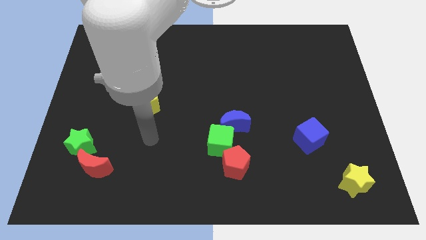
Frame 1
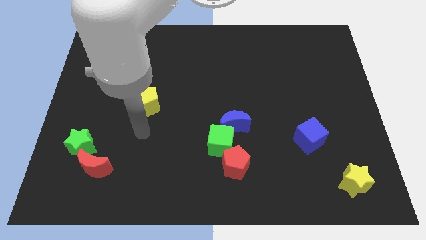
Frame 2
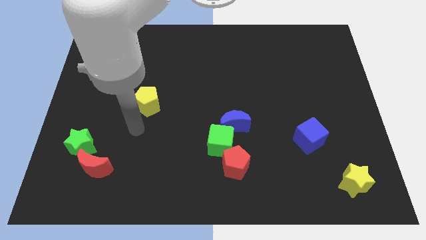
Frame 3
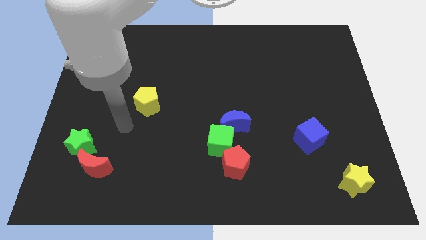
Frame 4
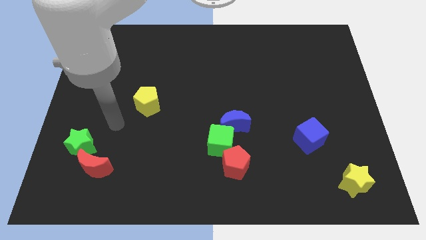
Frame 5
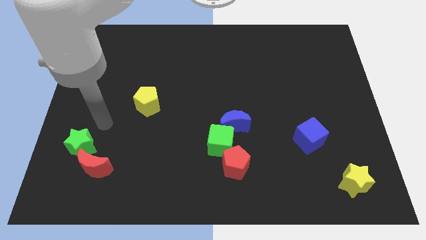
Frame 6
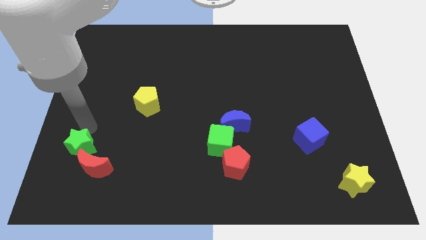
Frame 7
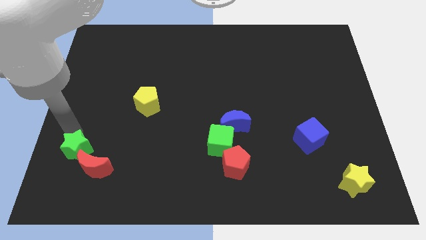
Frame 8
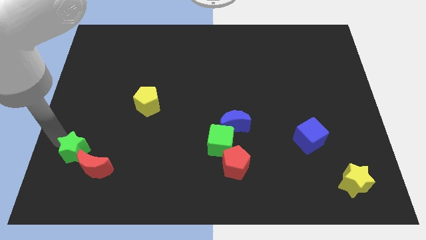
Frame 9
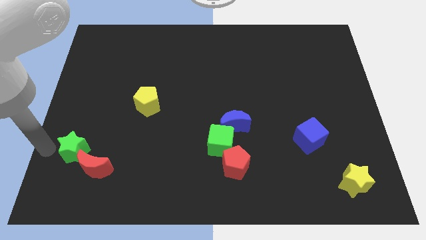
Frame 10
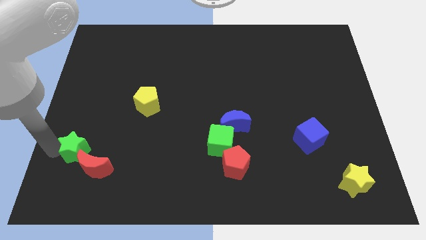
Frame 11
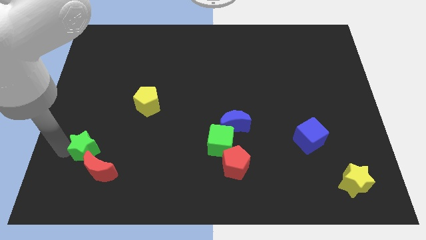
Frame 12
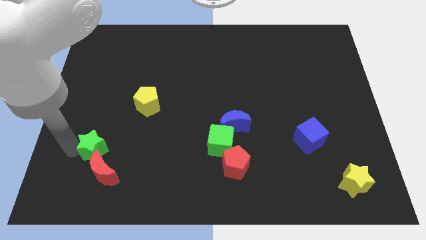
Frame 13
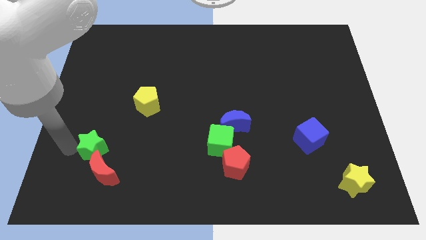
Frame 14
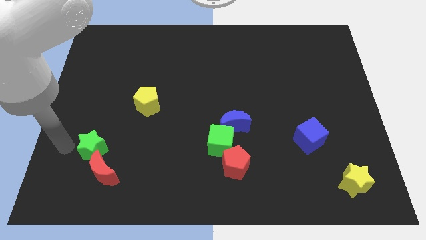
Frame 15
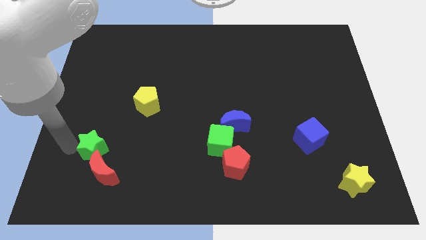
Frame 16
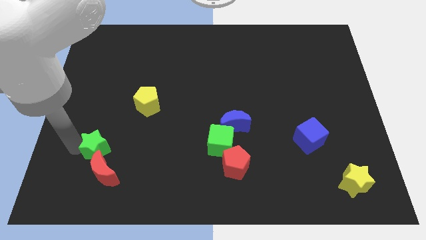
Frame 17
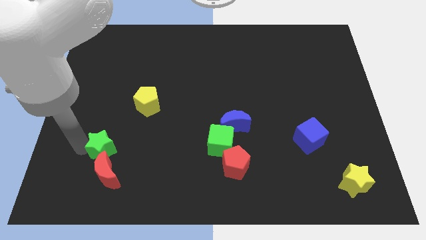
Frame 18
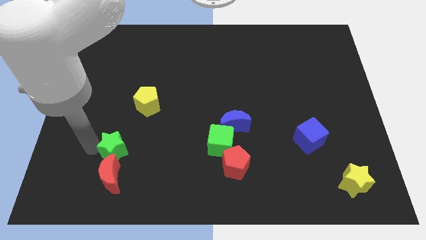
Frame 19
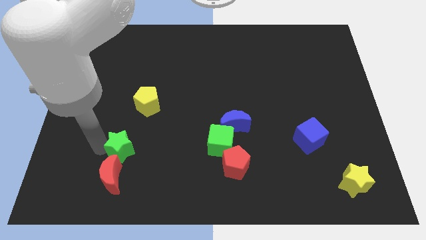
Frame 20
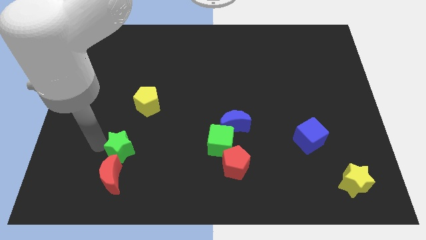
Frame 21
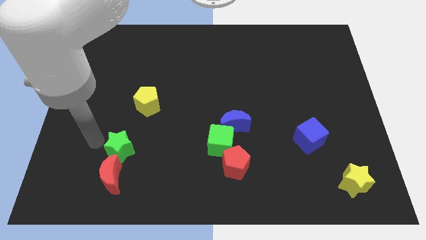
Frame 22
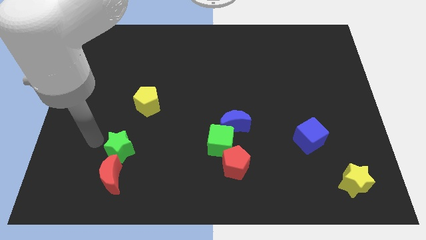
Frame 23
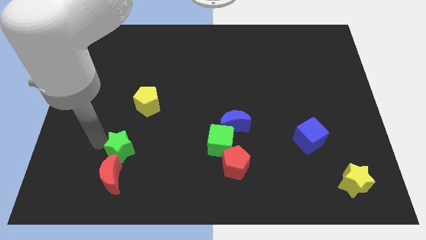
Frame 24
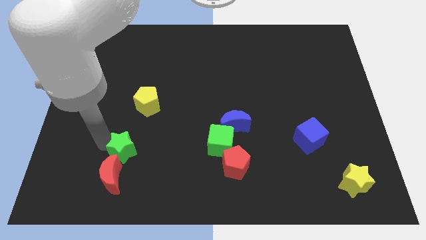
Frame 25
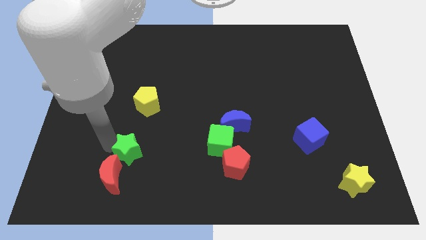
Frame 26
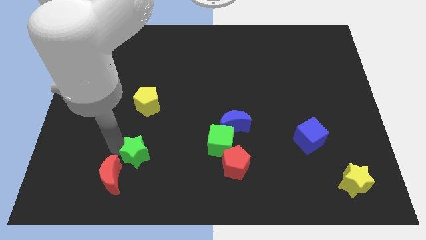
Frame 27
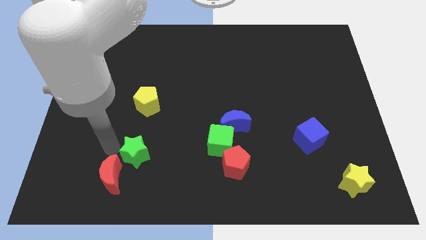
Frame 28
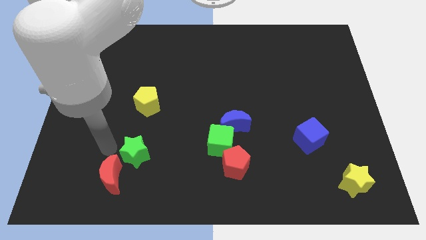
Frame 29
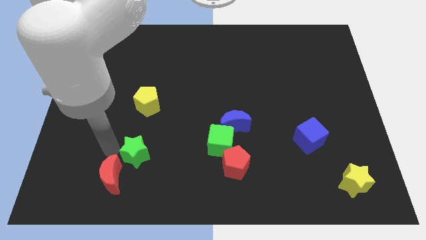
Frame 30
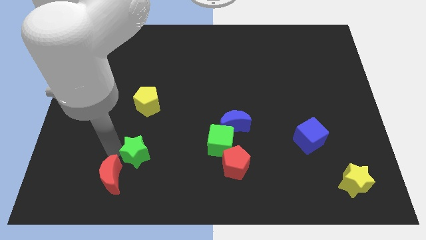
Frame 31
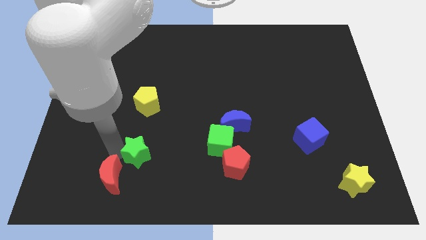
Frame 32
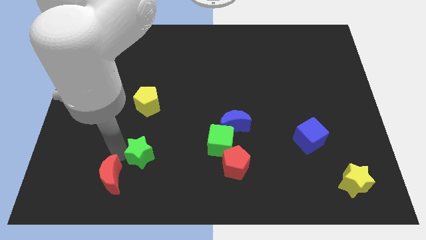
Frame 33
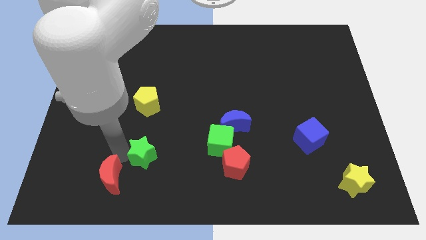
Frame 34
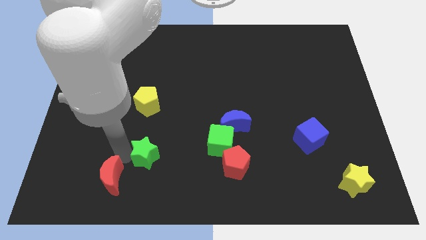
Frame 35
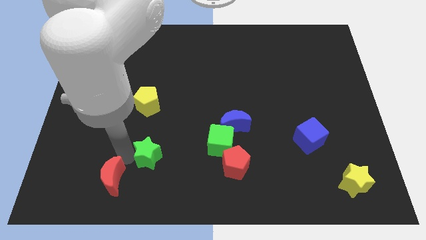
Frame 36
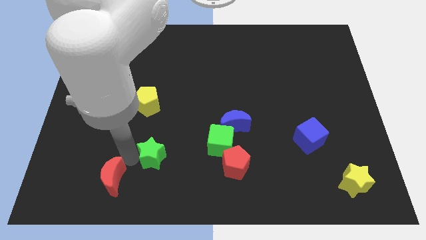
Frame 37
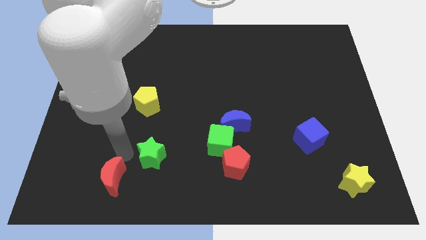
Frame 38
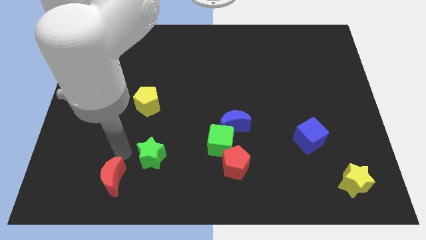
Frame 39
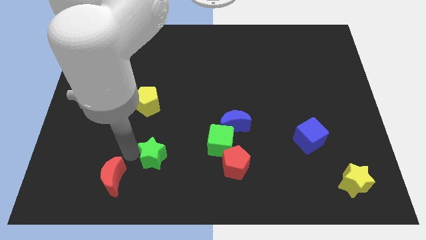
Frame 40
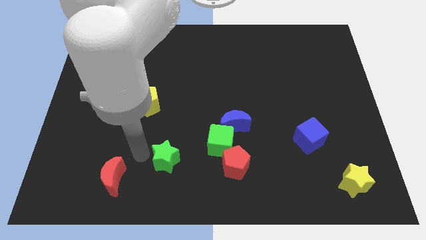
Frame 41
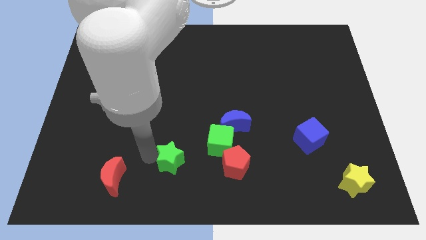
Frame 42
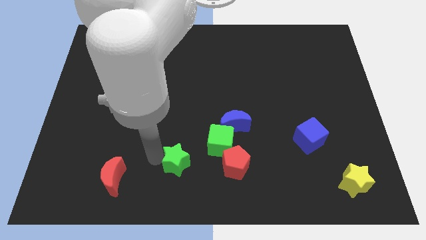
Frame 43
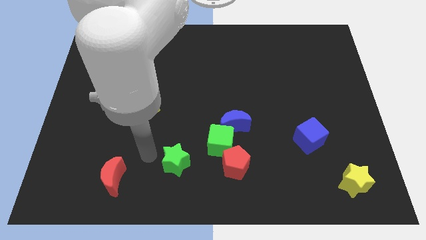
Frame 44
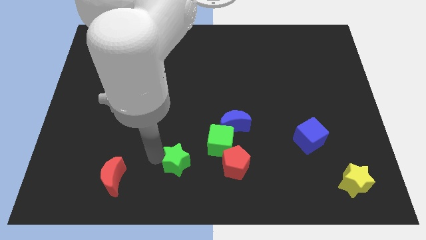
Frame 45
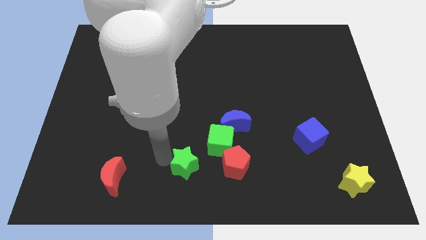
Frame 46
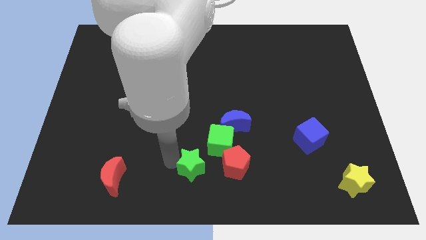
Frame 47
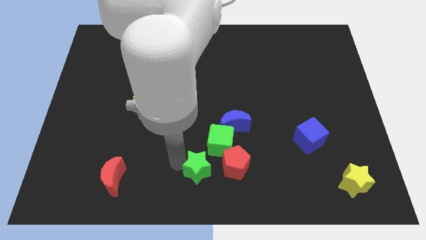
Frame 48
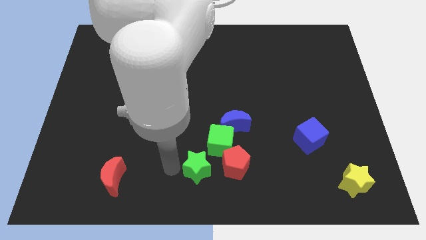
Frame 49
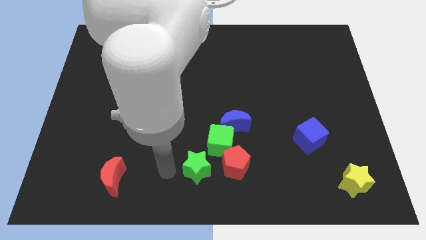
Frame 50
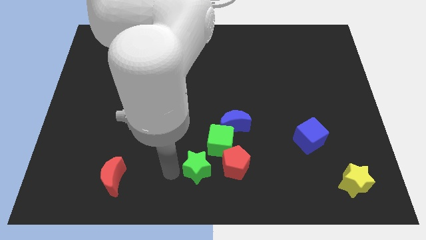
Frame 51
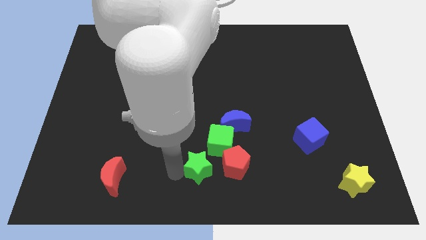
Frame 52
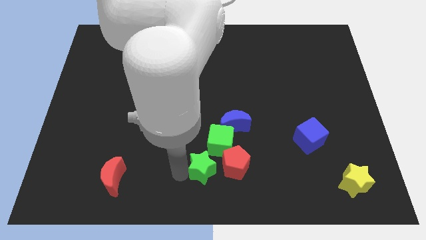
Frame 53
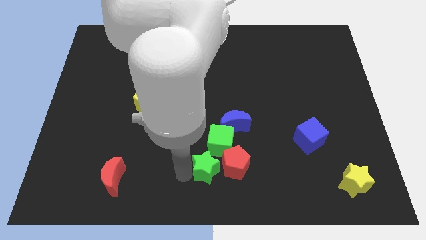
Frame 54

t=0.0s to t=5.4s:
move the green star next to the red pentagon

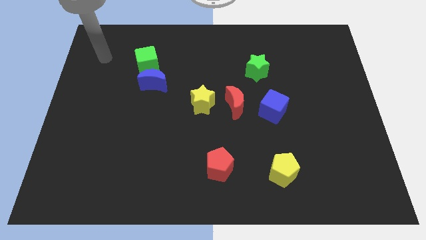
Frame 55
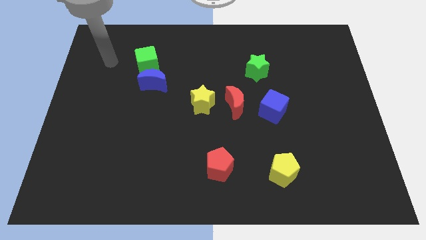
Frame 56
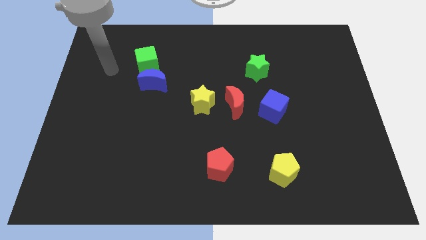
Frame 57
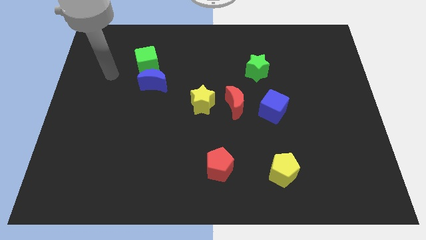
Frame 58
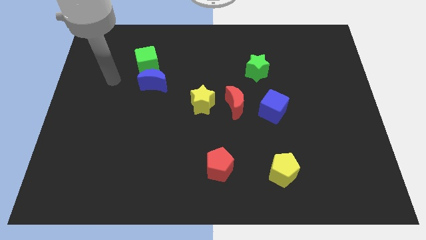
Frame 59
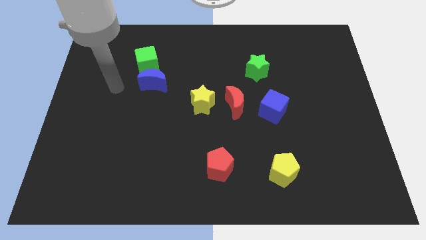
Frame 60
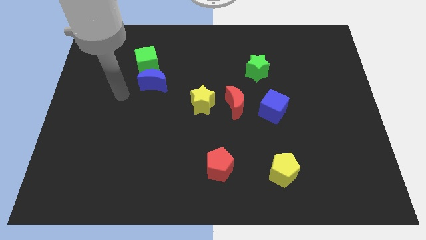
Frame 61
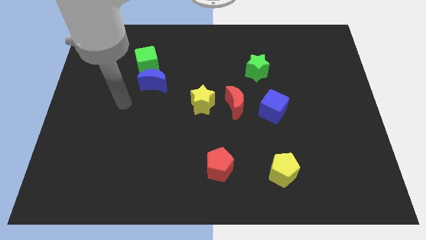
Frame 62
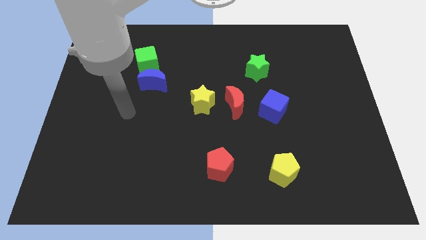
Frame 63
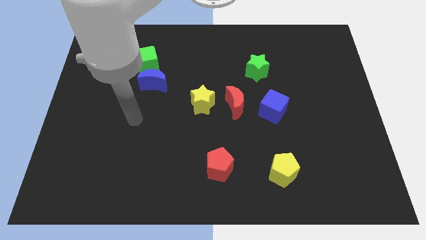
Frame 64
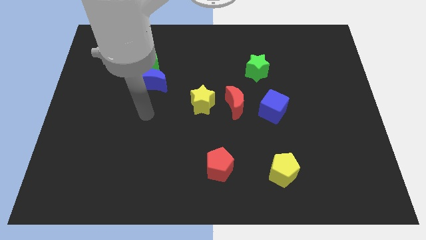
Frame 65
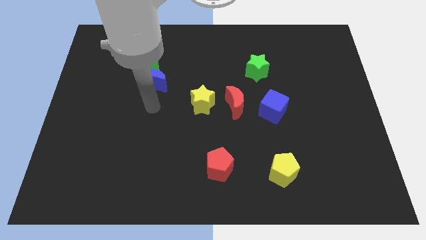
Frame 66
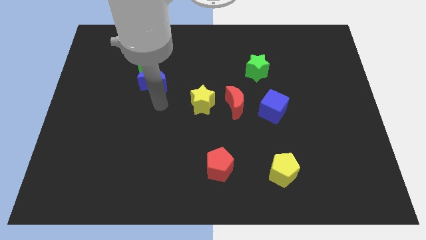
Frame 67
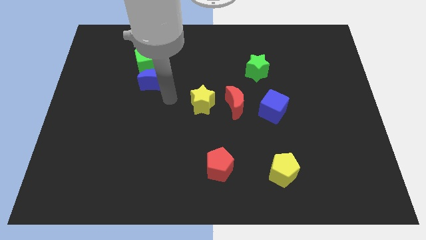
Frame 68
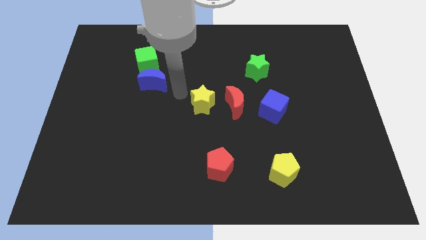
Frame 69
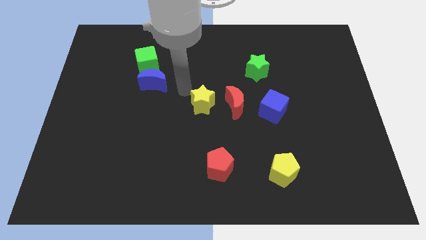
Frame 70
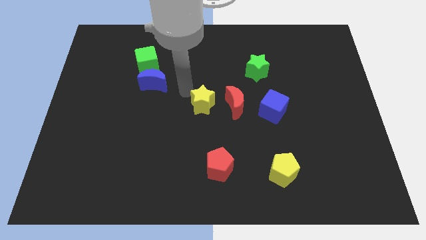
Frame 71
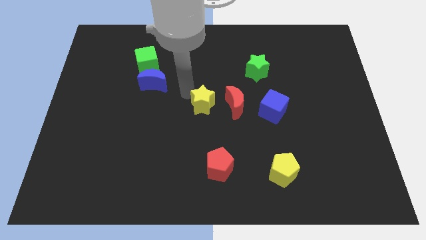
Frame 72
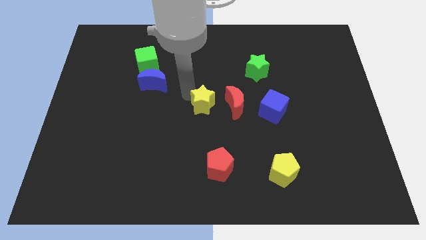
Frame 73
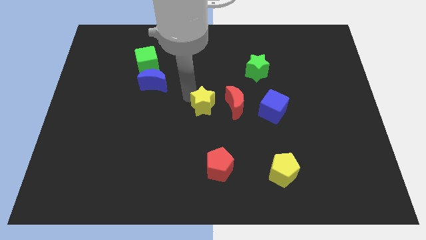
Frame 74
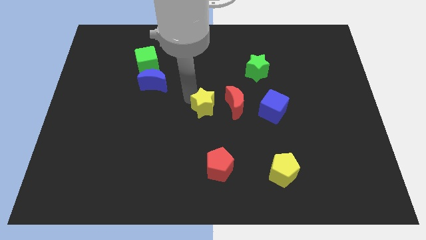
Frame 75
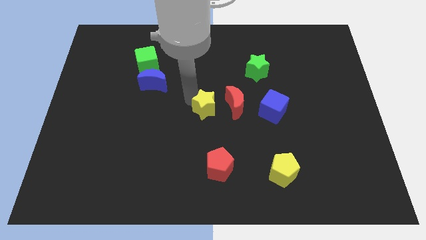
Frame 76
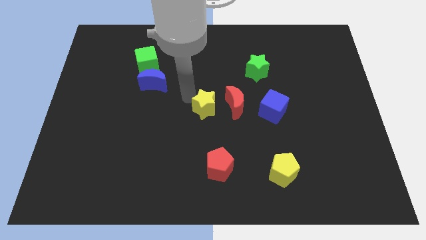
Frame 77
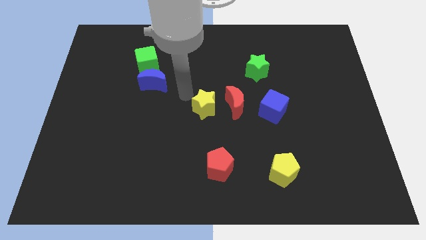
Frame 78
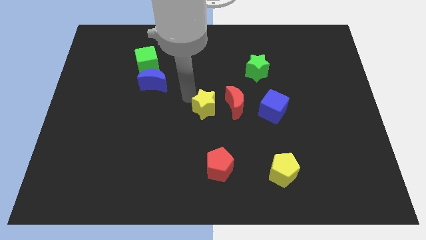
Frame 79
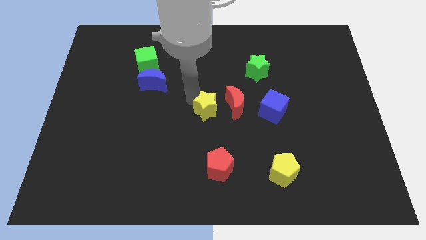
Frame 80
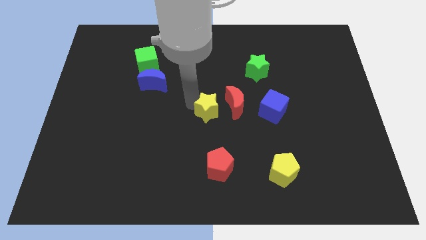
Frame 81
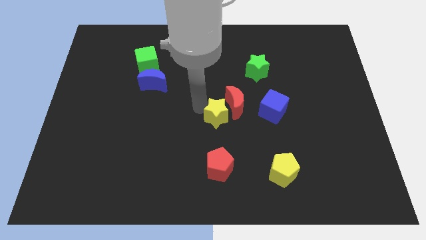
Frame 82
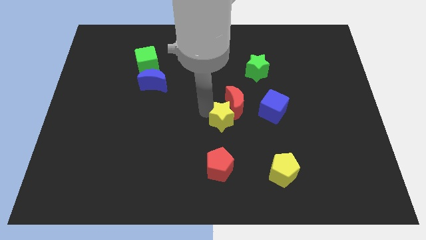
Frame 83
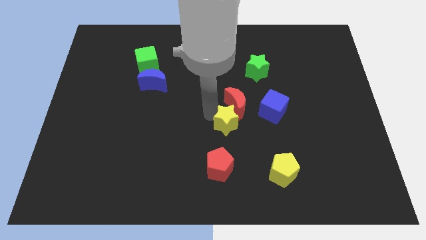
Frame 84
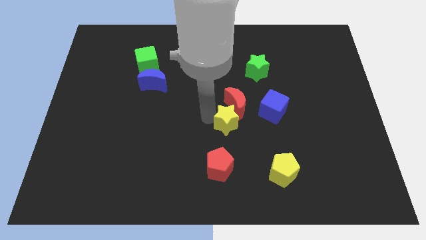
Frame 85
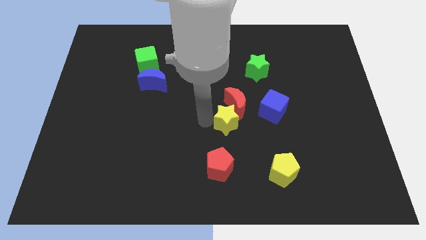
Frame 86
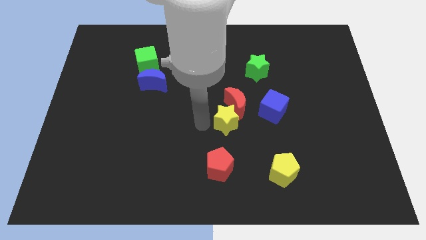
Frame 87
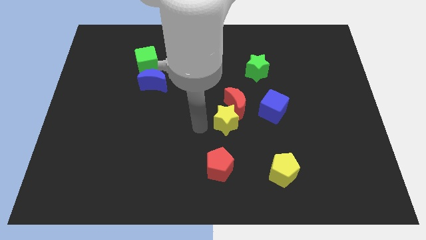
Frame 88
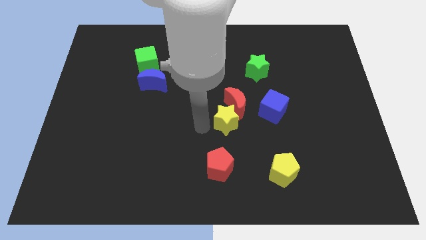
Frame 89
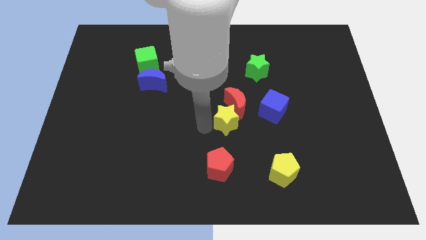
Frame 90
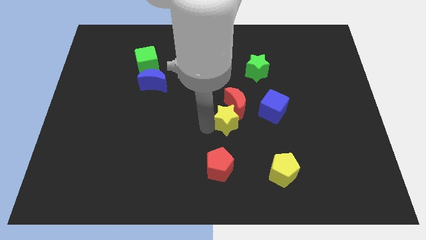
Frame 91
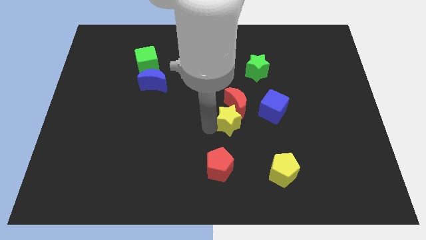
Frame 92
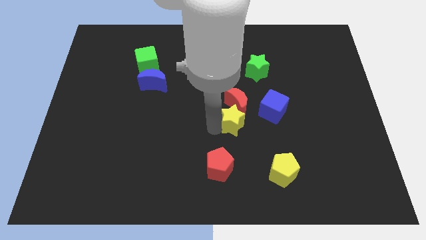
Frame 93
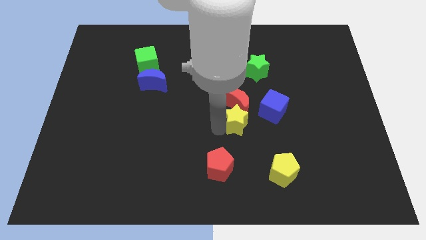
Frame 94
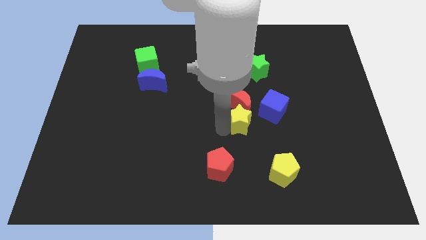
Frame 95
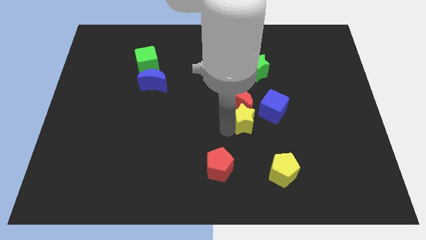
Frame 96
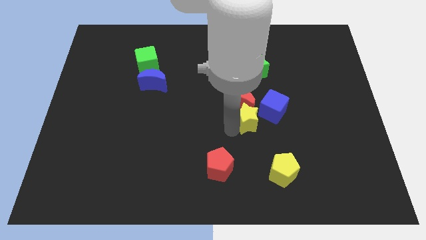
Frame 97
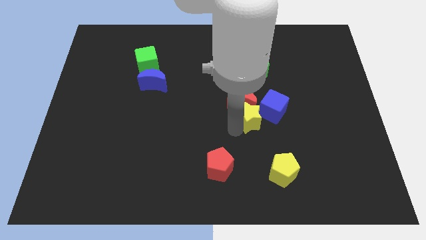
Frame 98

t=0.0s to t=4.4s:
move the yellow star to the blue cube
